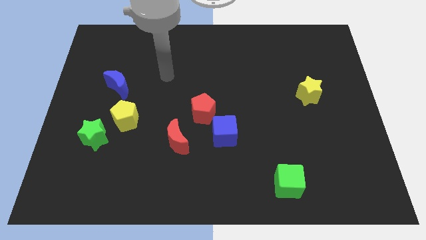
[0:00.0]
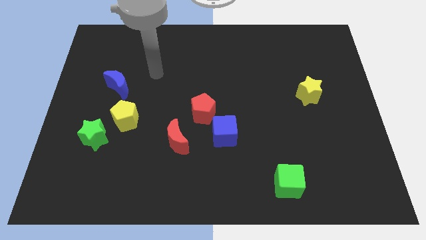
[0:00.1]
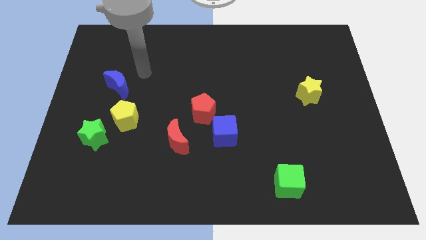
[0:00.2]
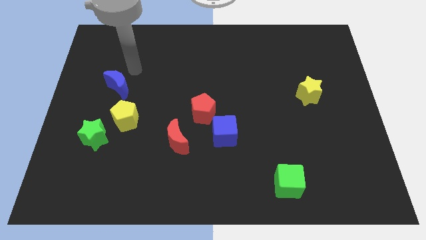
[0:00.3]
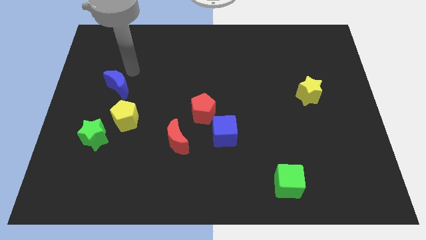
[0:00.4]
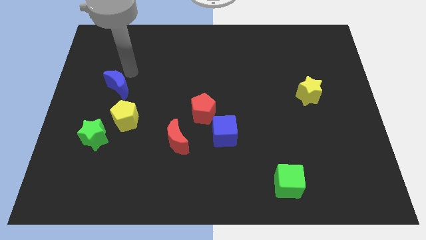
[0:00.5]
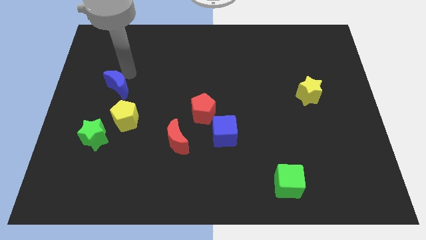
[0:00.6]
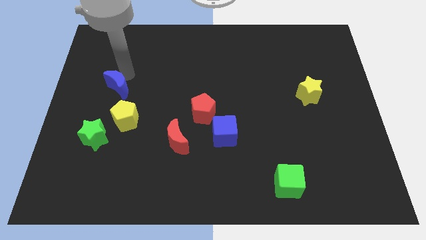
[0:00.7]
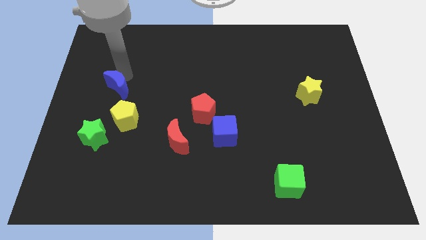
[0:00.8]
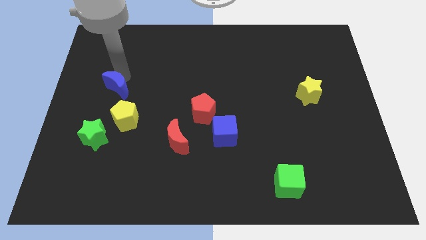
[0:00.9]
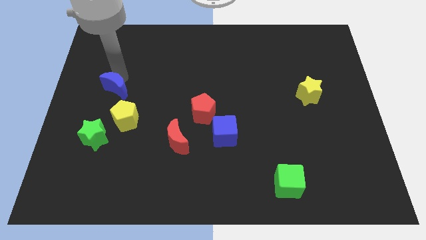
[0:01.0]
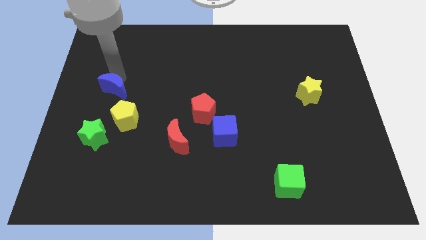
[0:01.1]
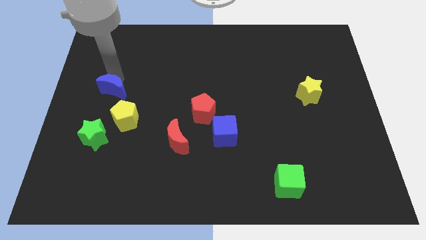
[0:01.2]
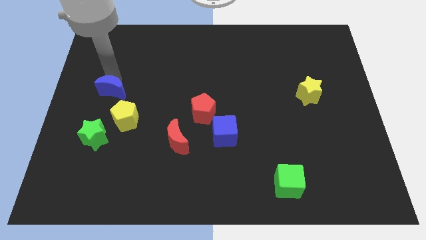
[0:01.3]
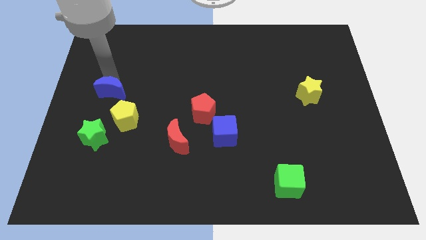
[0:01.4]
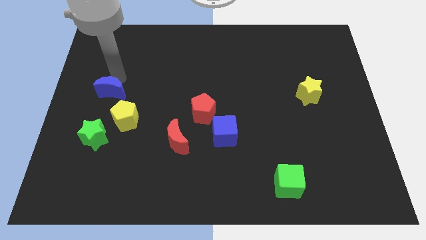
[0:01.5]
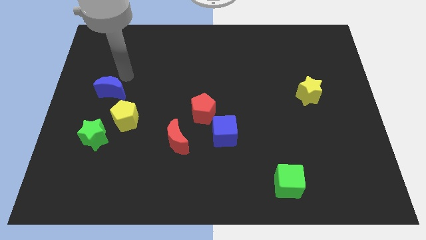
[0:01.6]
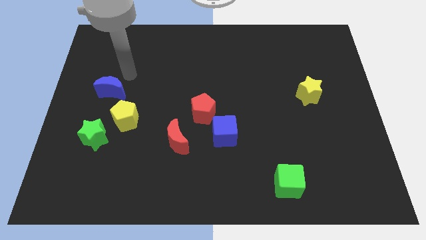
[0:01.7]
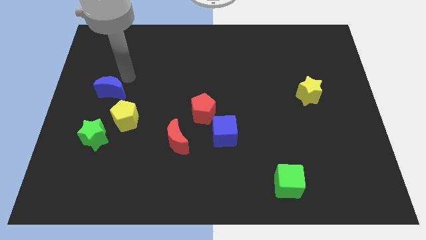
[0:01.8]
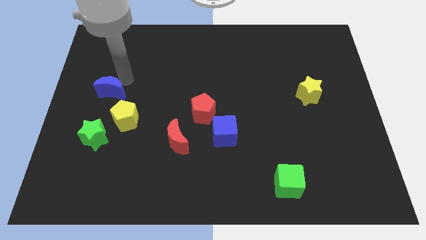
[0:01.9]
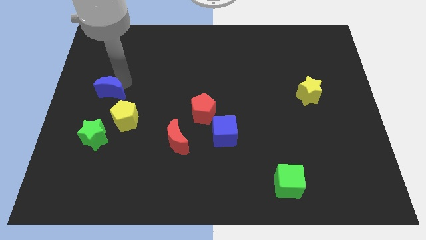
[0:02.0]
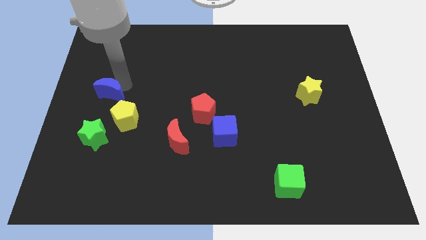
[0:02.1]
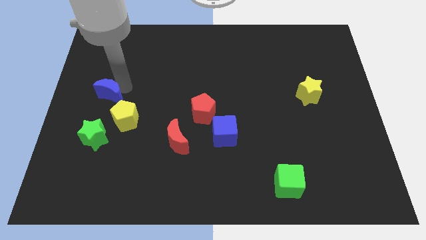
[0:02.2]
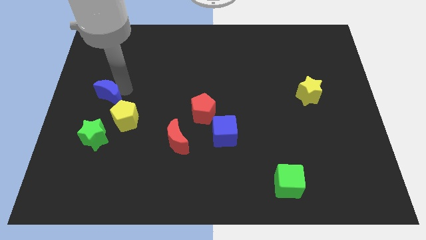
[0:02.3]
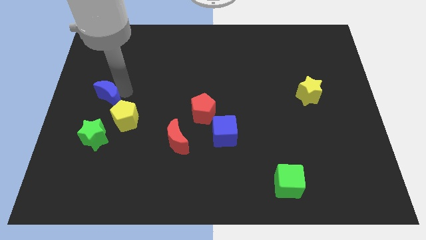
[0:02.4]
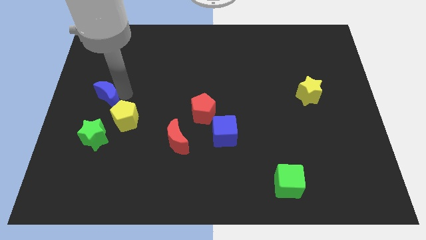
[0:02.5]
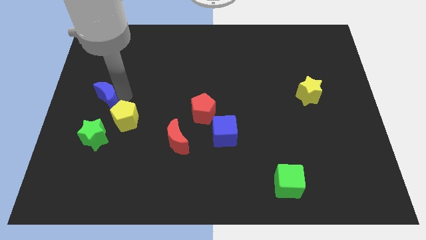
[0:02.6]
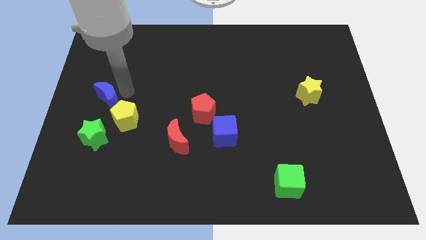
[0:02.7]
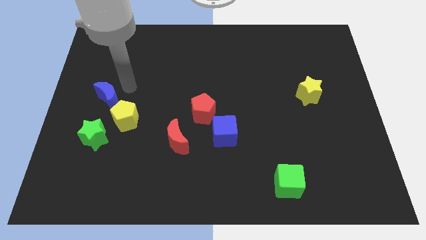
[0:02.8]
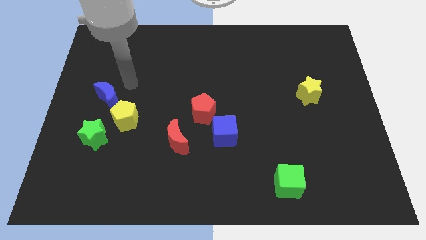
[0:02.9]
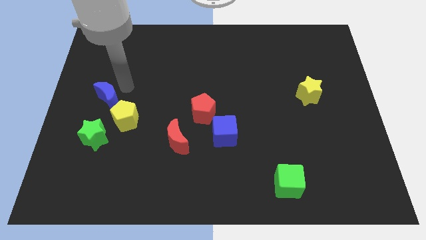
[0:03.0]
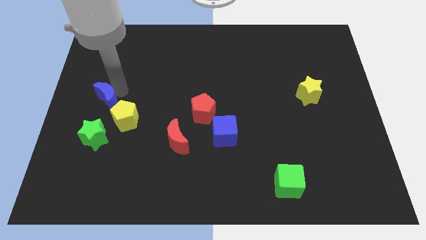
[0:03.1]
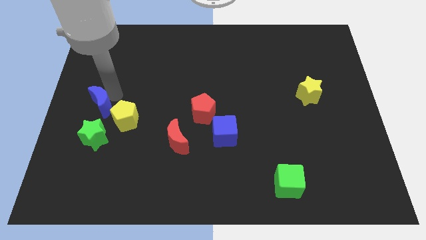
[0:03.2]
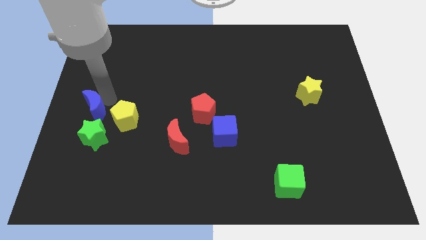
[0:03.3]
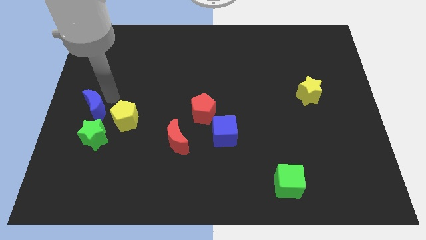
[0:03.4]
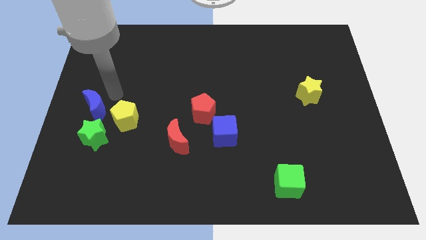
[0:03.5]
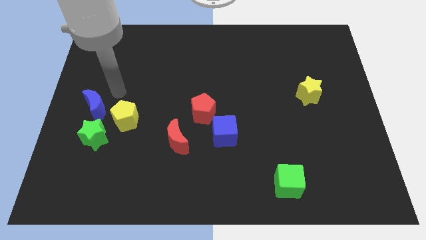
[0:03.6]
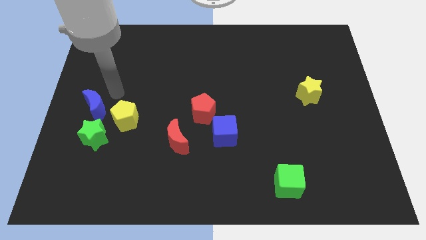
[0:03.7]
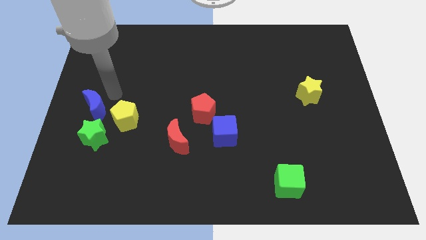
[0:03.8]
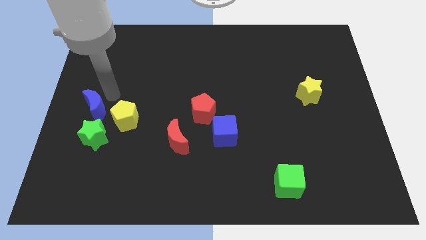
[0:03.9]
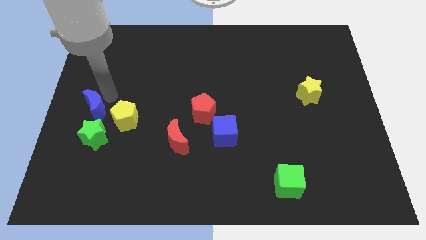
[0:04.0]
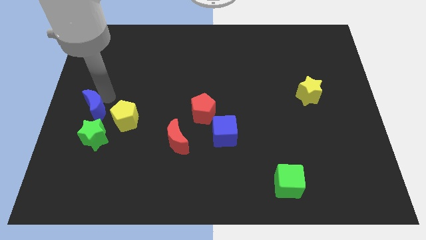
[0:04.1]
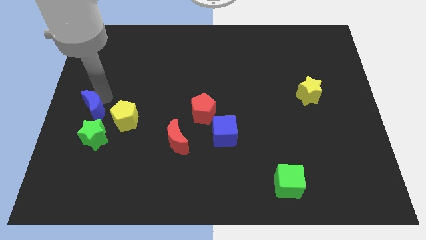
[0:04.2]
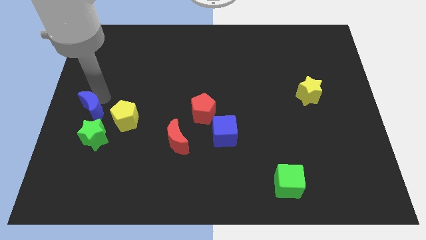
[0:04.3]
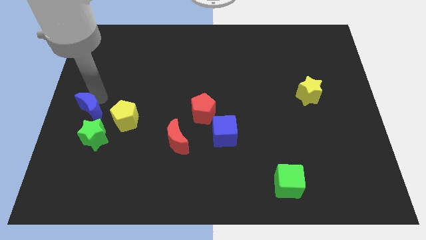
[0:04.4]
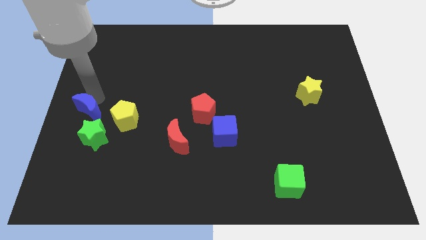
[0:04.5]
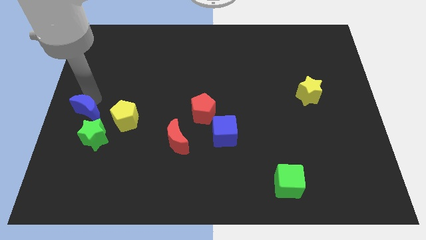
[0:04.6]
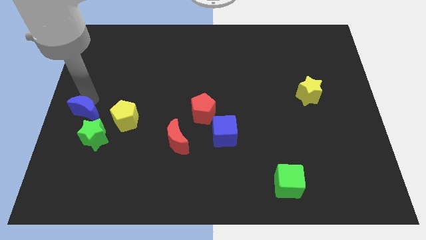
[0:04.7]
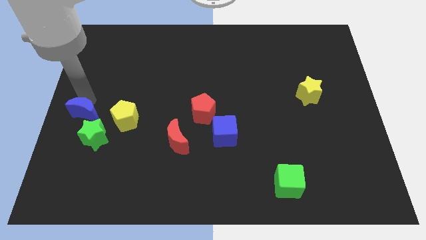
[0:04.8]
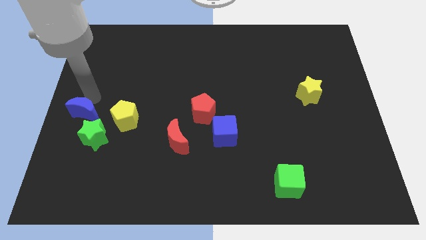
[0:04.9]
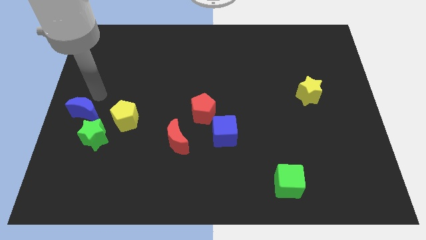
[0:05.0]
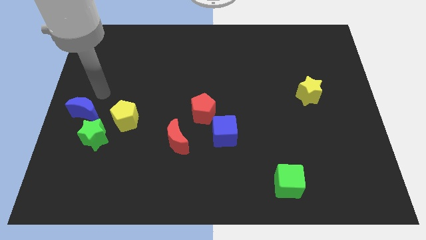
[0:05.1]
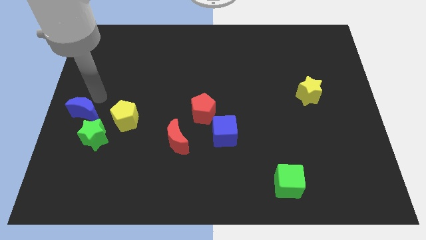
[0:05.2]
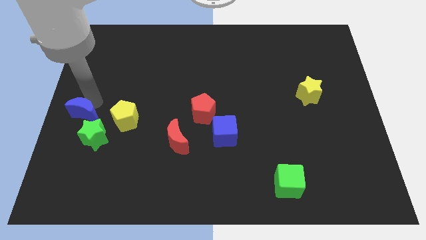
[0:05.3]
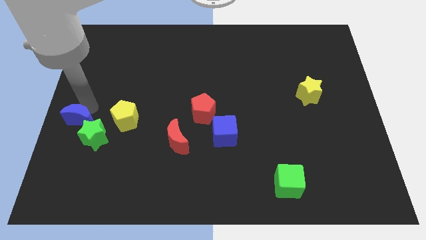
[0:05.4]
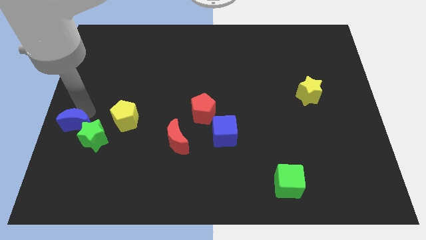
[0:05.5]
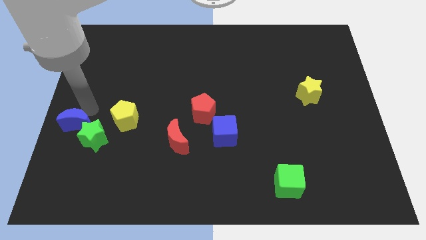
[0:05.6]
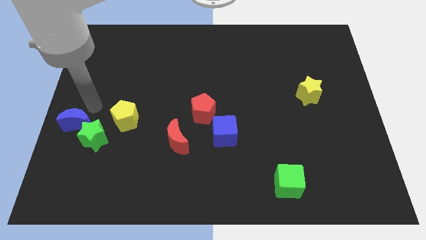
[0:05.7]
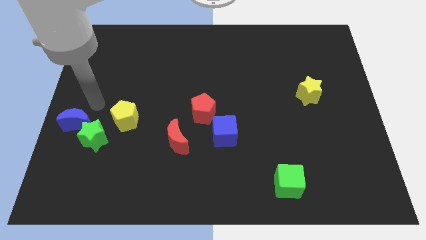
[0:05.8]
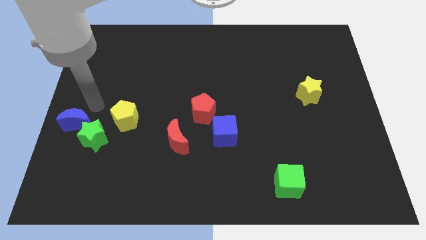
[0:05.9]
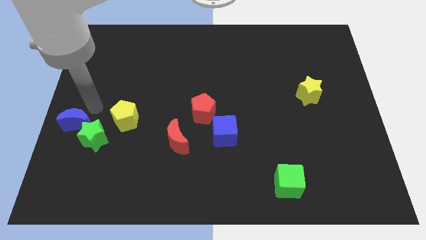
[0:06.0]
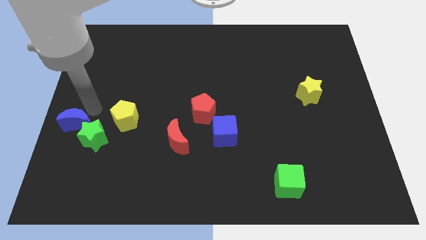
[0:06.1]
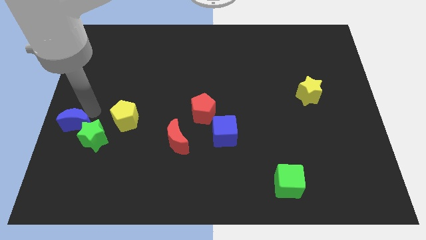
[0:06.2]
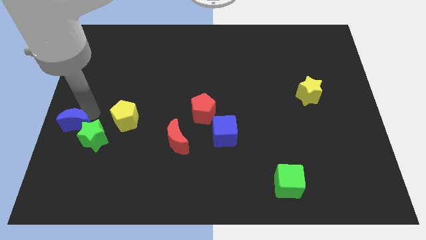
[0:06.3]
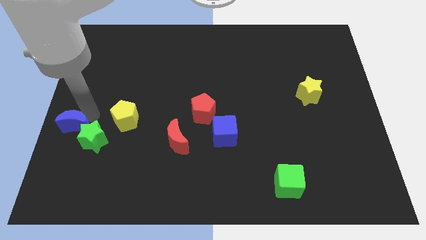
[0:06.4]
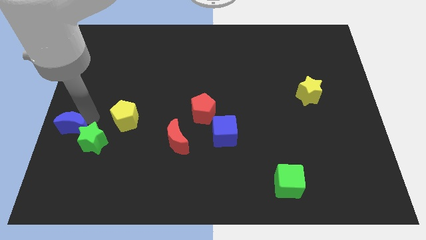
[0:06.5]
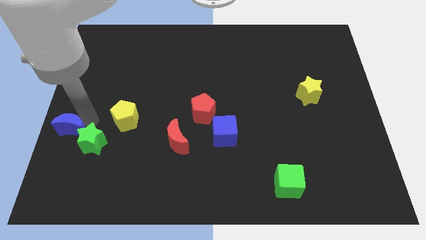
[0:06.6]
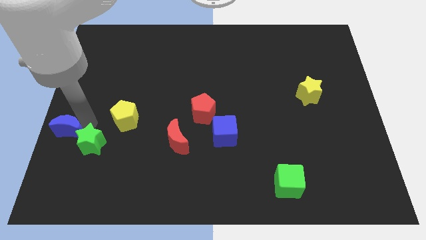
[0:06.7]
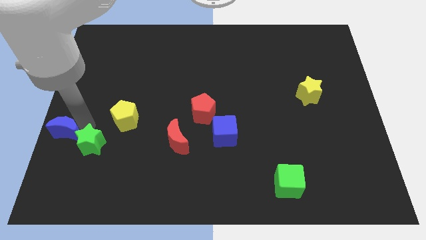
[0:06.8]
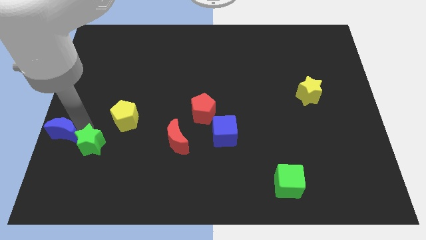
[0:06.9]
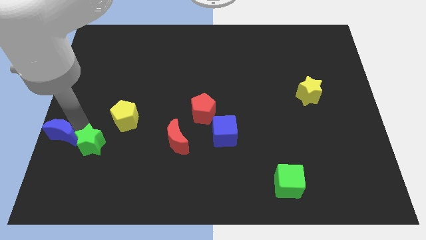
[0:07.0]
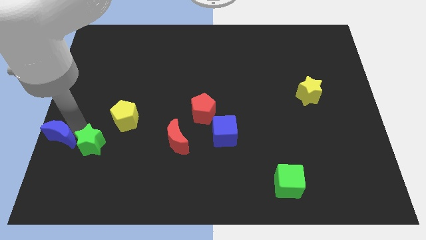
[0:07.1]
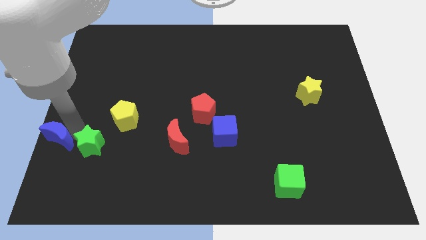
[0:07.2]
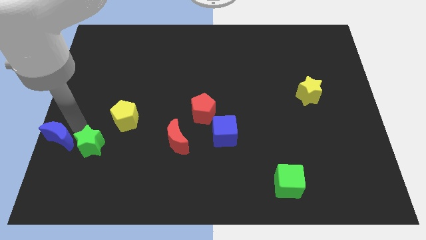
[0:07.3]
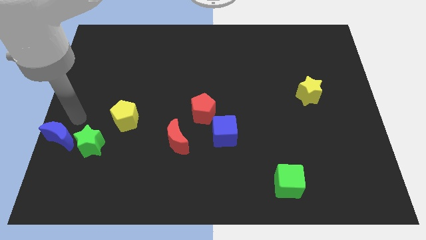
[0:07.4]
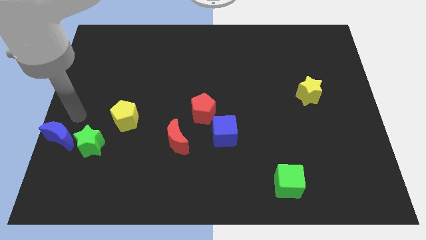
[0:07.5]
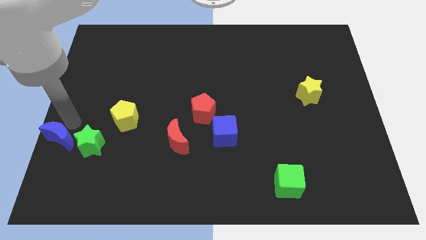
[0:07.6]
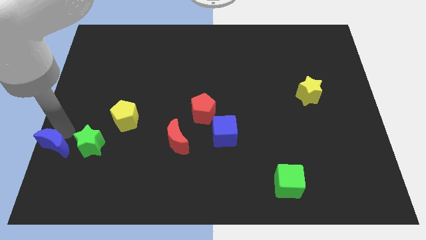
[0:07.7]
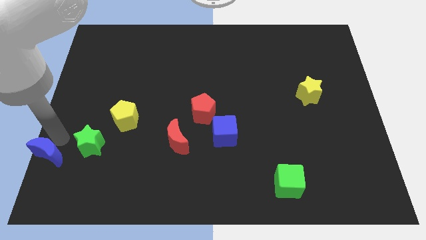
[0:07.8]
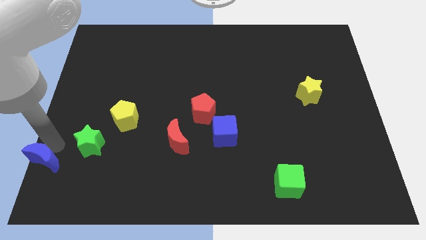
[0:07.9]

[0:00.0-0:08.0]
move the blue moon to the lower left corner
